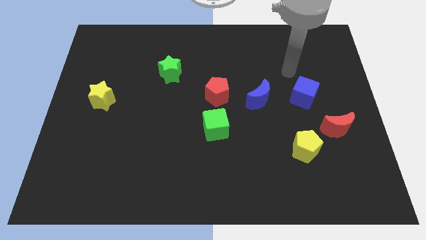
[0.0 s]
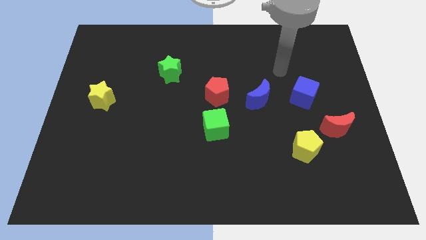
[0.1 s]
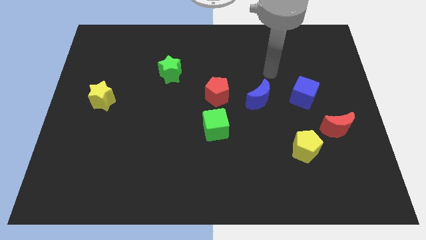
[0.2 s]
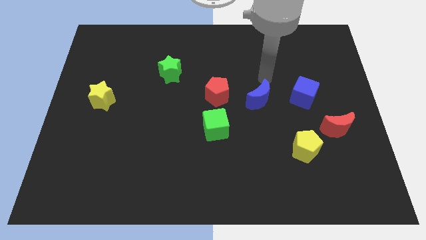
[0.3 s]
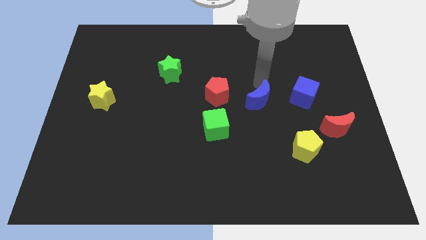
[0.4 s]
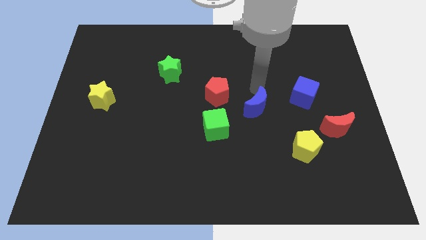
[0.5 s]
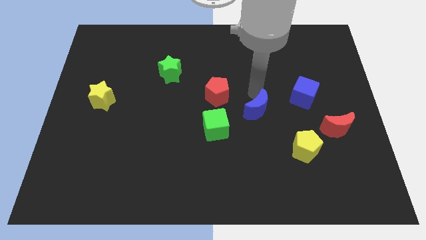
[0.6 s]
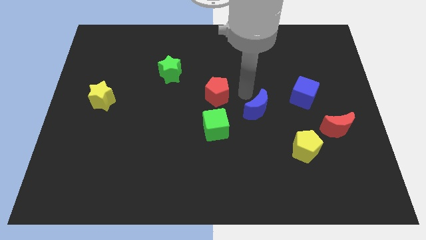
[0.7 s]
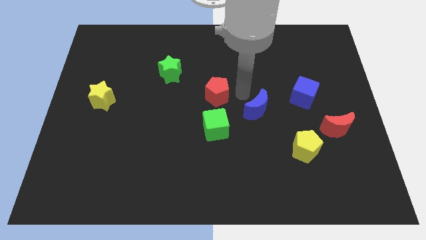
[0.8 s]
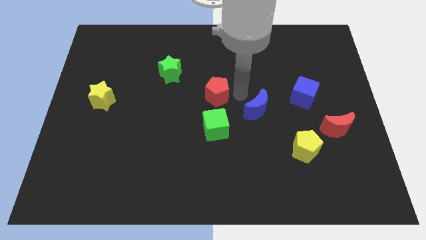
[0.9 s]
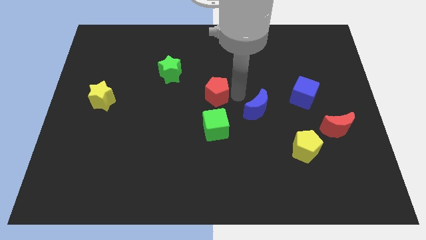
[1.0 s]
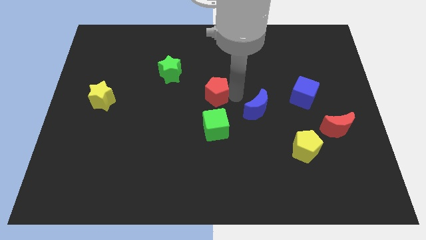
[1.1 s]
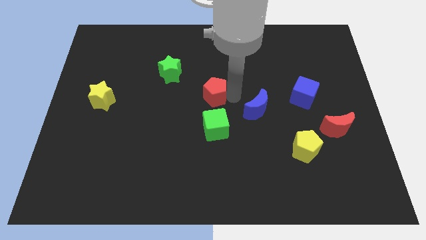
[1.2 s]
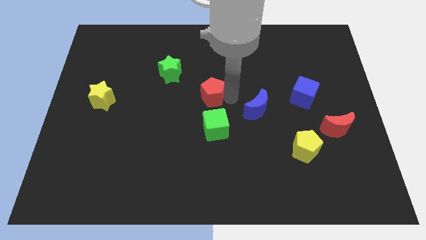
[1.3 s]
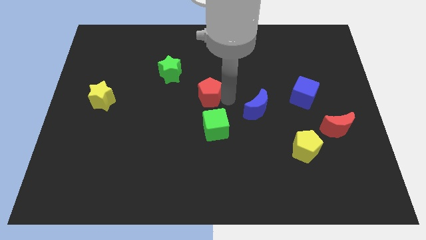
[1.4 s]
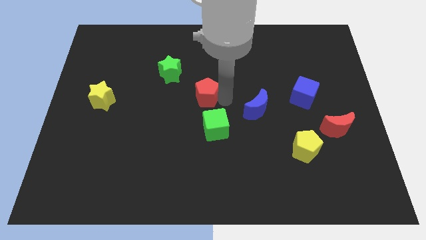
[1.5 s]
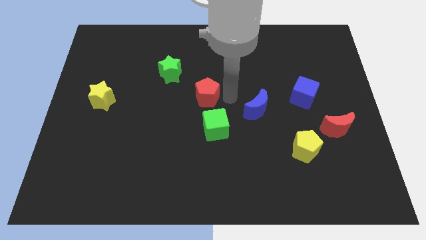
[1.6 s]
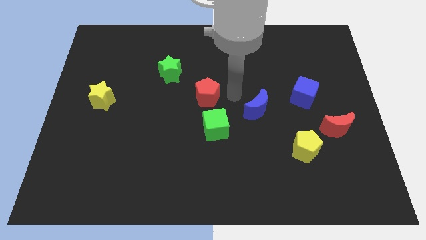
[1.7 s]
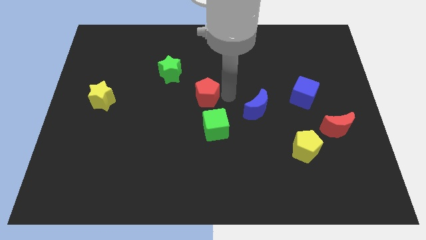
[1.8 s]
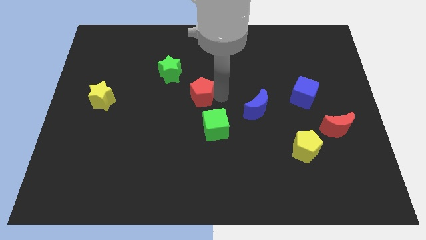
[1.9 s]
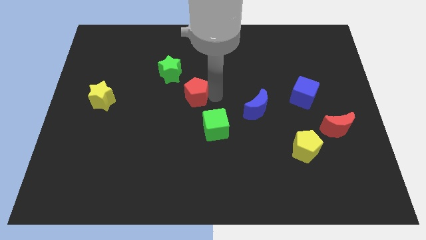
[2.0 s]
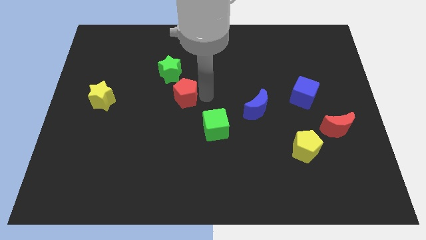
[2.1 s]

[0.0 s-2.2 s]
push the red pentagon left a bit

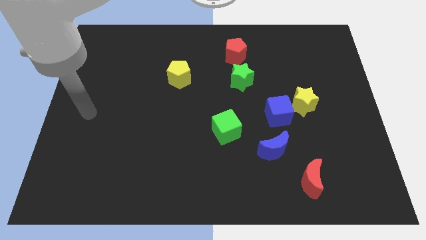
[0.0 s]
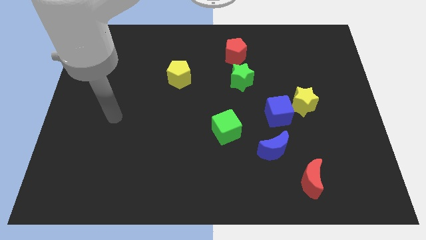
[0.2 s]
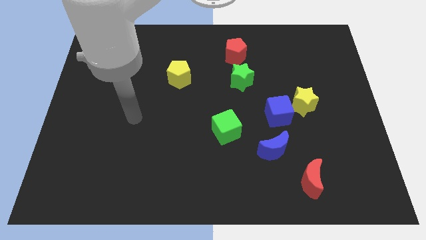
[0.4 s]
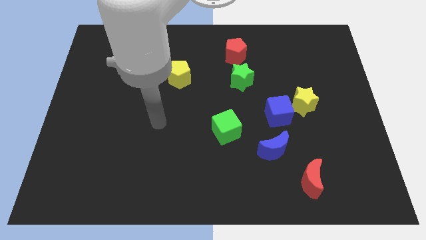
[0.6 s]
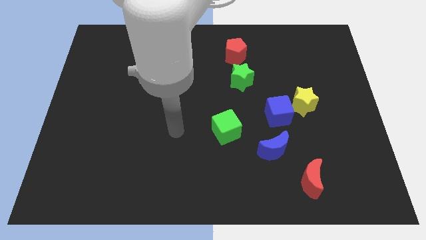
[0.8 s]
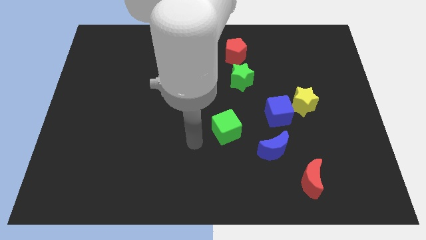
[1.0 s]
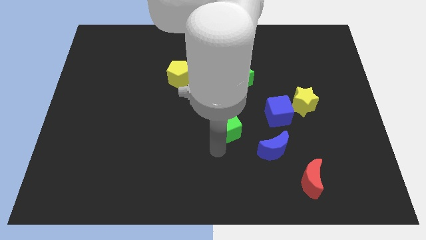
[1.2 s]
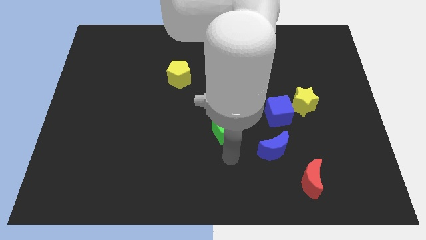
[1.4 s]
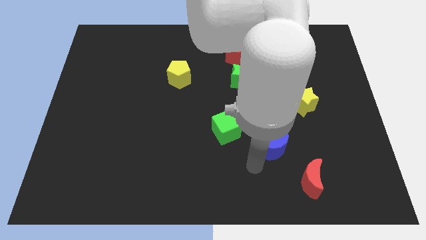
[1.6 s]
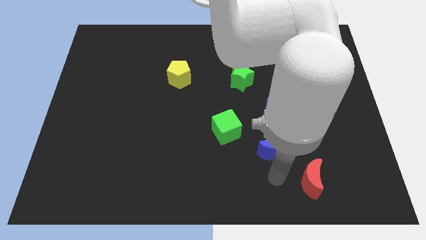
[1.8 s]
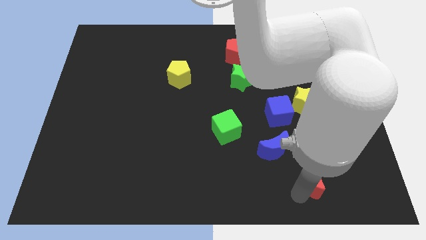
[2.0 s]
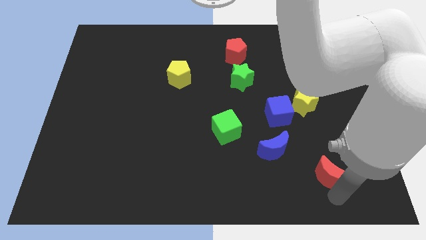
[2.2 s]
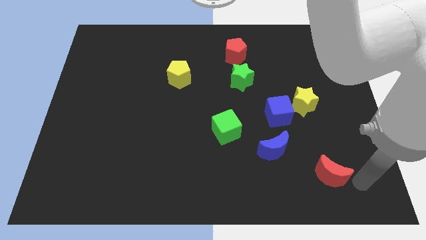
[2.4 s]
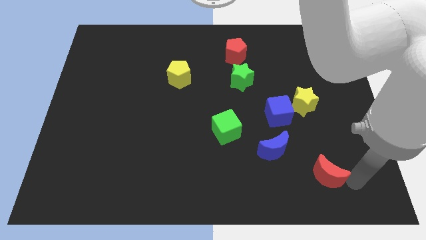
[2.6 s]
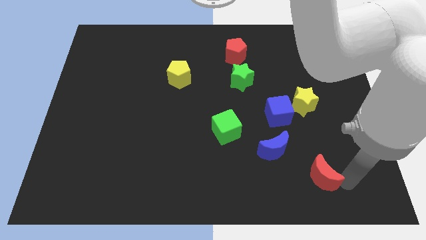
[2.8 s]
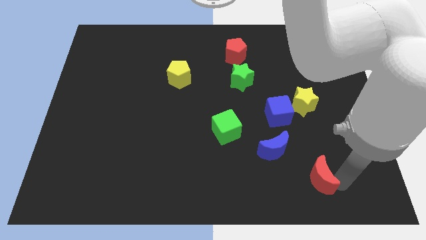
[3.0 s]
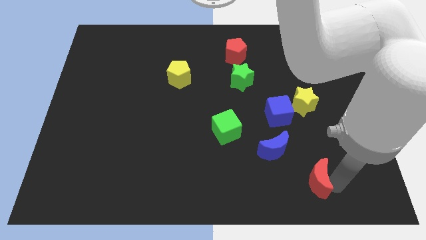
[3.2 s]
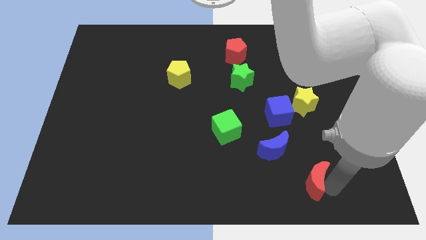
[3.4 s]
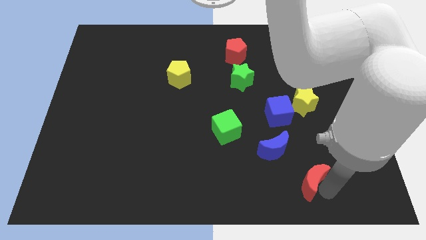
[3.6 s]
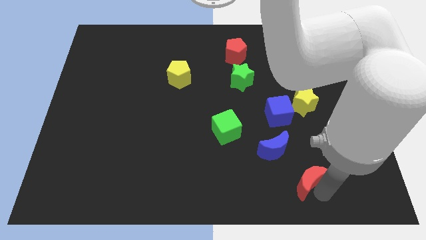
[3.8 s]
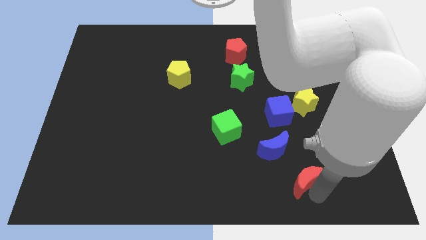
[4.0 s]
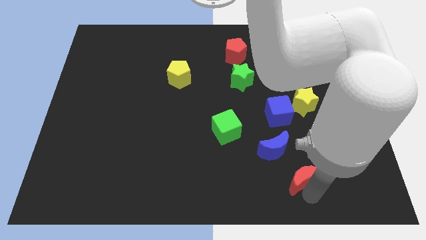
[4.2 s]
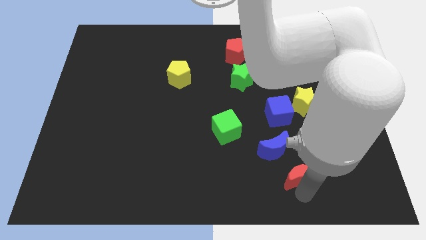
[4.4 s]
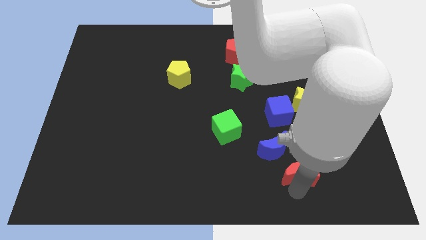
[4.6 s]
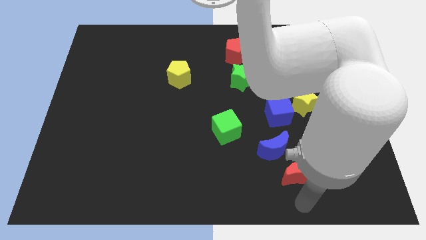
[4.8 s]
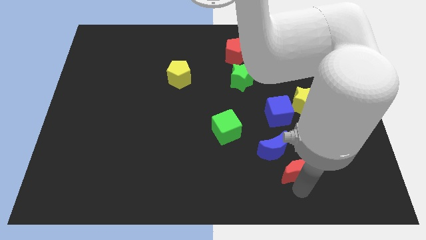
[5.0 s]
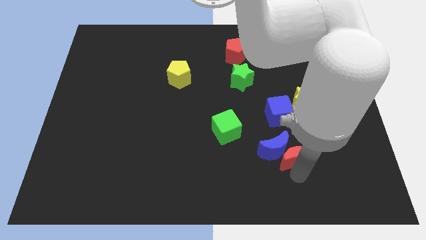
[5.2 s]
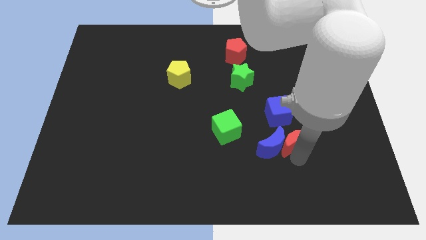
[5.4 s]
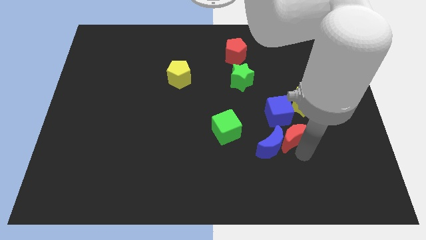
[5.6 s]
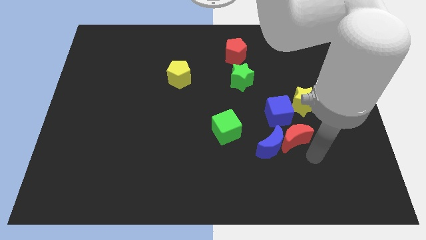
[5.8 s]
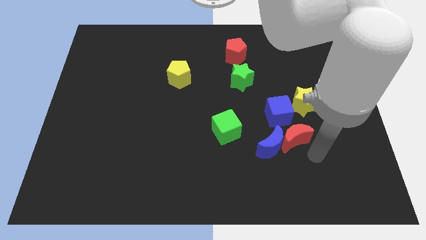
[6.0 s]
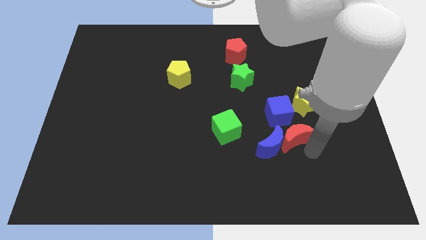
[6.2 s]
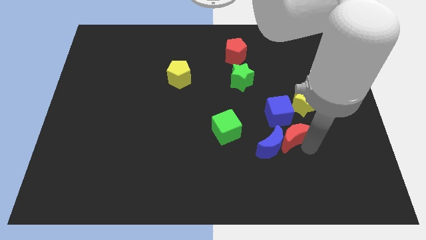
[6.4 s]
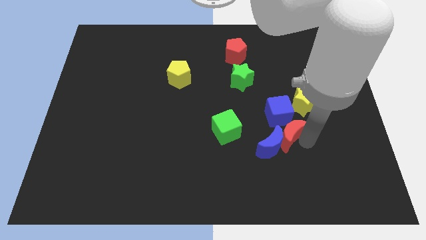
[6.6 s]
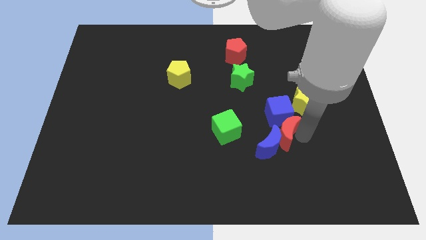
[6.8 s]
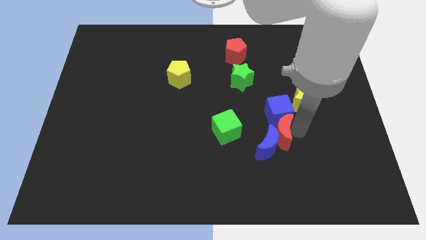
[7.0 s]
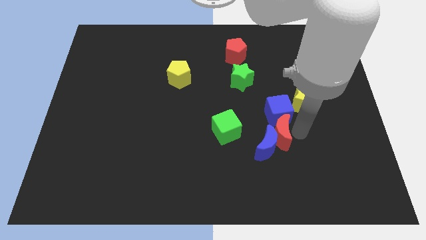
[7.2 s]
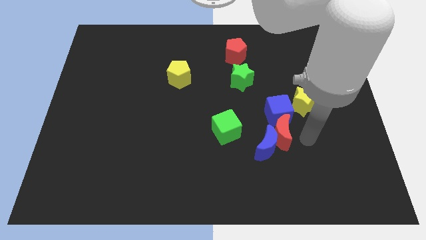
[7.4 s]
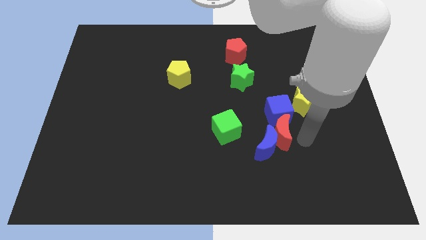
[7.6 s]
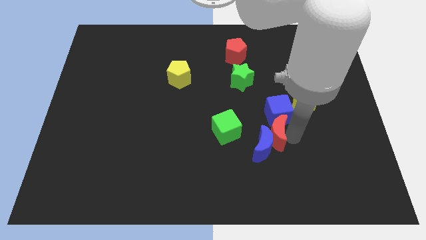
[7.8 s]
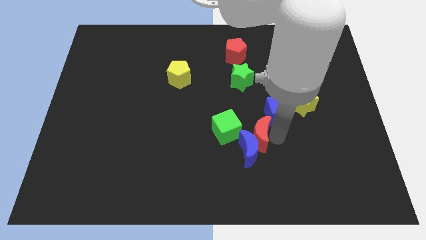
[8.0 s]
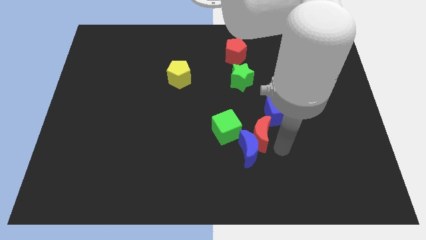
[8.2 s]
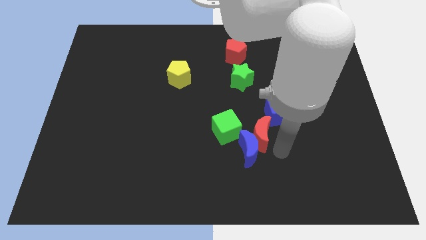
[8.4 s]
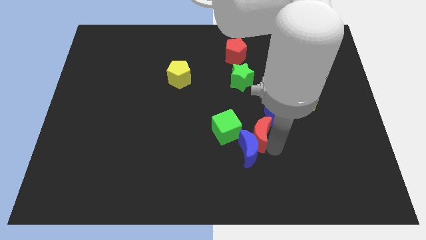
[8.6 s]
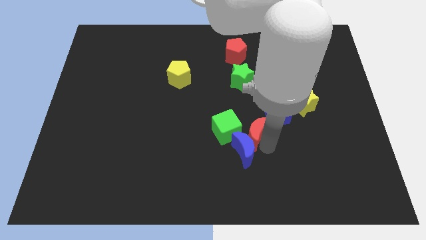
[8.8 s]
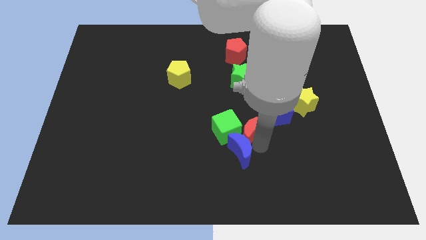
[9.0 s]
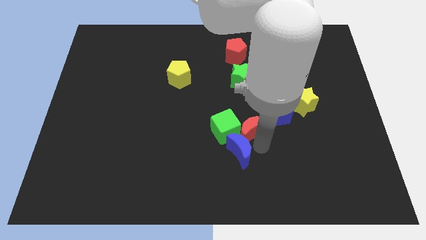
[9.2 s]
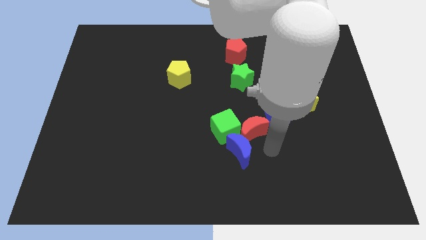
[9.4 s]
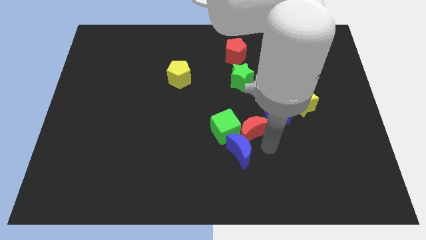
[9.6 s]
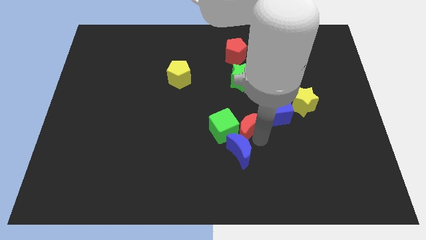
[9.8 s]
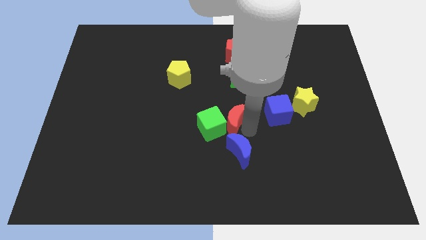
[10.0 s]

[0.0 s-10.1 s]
push the red moon diagonally up and left

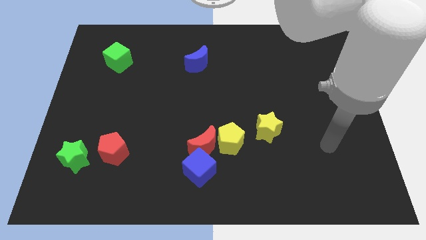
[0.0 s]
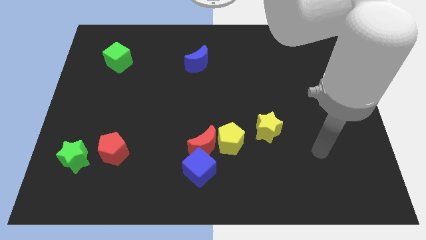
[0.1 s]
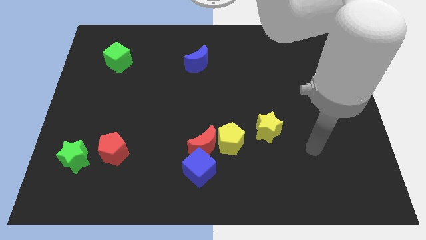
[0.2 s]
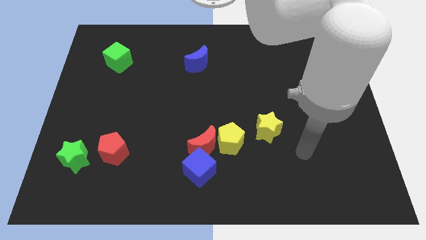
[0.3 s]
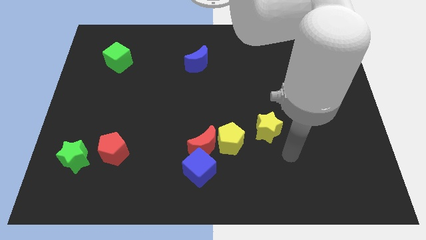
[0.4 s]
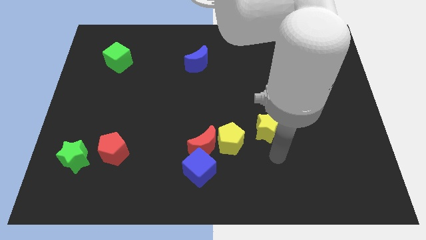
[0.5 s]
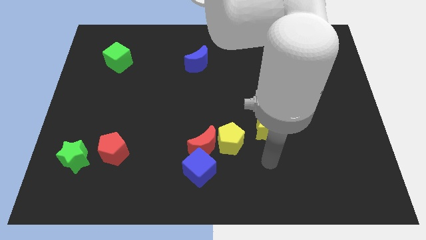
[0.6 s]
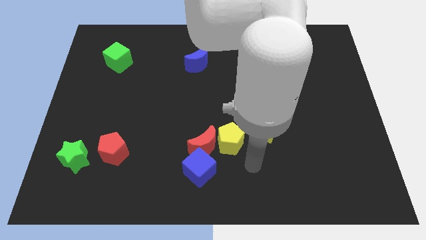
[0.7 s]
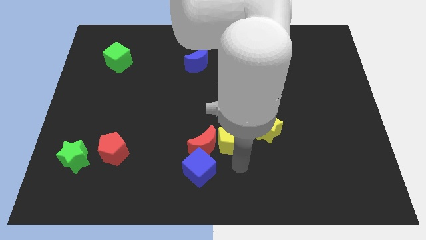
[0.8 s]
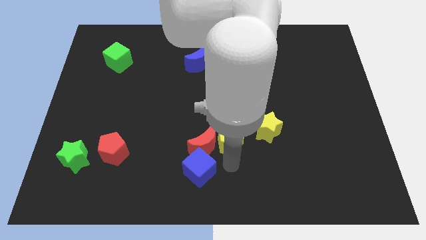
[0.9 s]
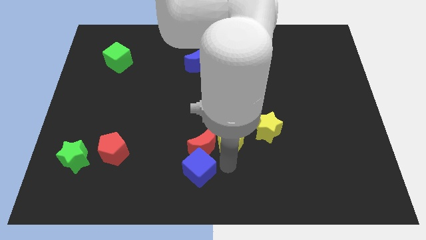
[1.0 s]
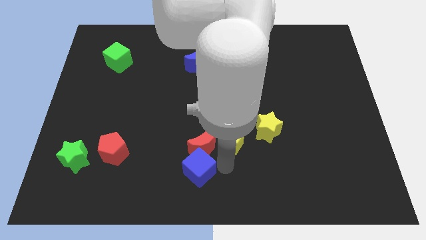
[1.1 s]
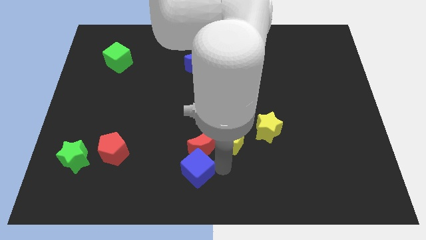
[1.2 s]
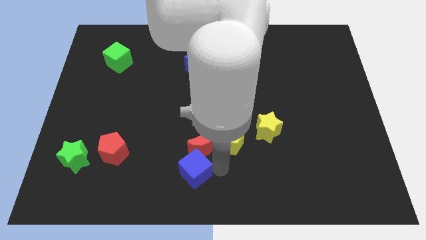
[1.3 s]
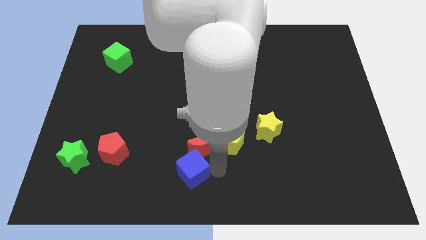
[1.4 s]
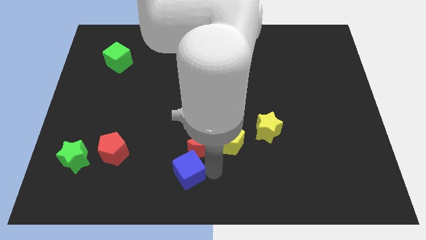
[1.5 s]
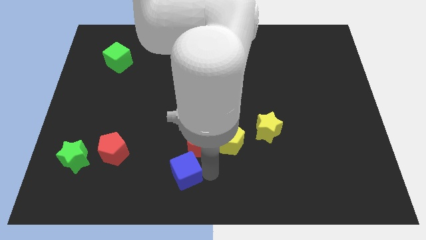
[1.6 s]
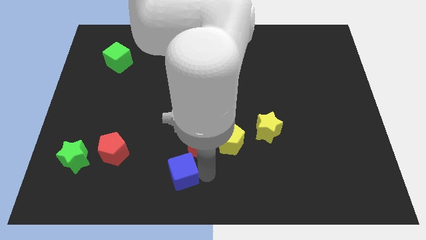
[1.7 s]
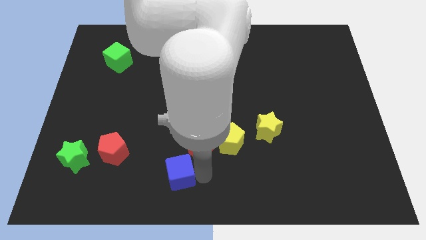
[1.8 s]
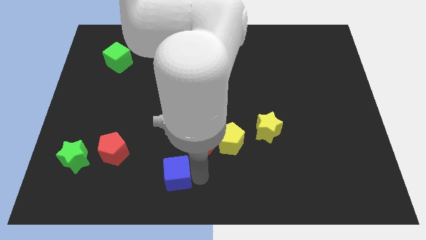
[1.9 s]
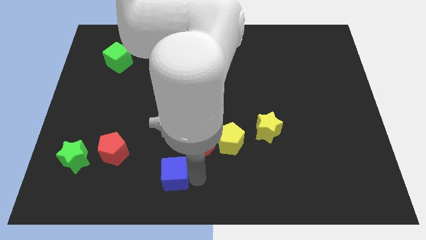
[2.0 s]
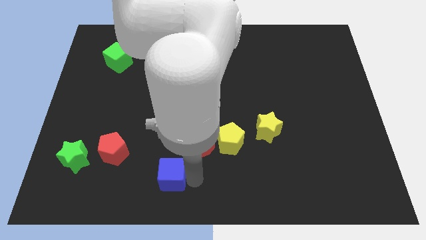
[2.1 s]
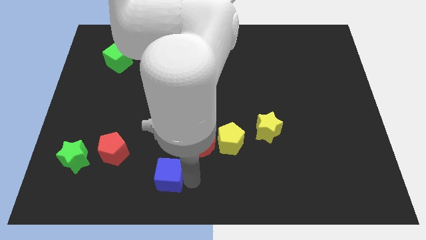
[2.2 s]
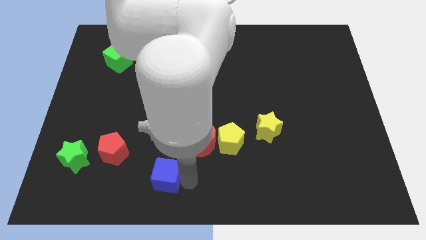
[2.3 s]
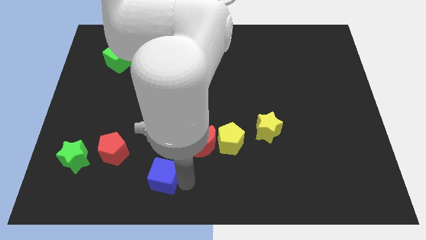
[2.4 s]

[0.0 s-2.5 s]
push the blue cube left a little
